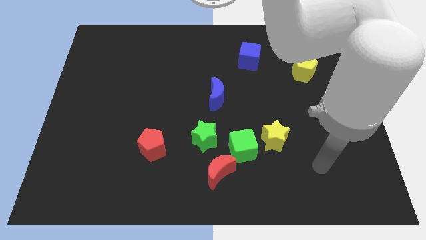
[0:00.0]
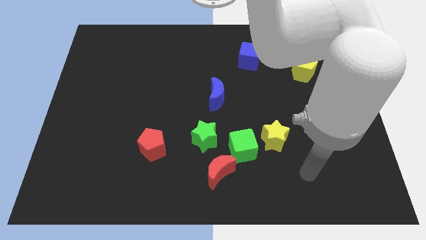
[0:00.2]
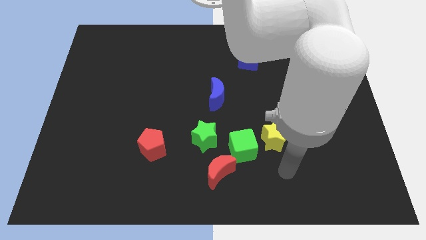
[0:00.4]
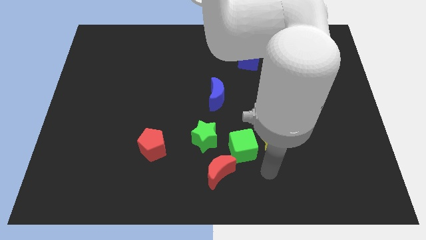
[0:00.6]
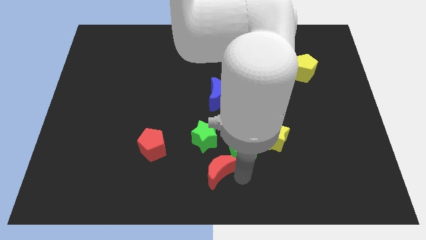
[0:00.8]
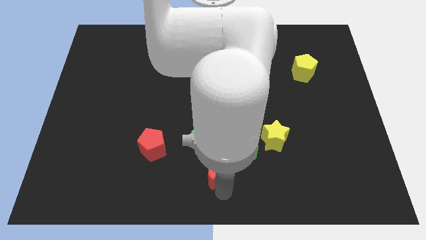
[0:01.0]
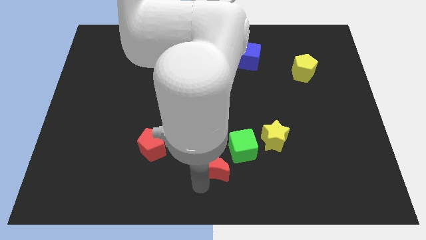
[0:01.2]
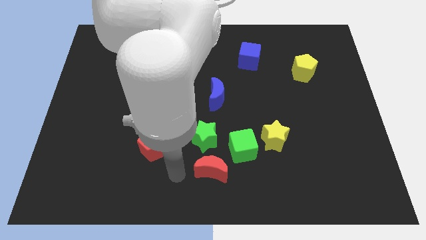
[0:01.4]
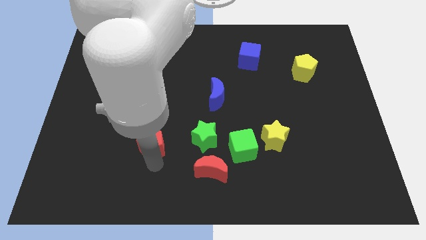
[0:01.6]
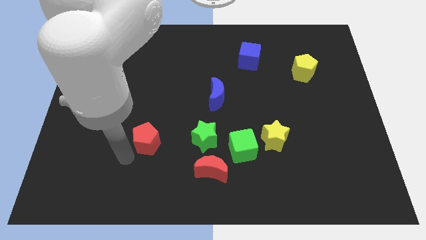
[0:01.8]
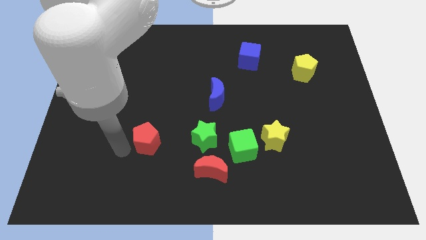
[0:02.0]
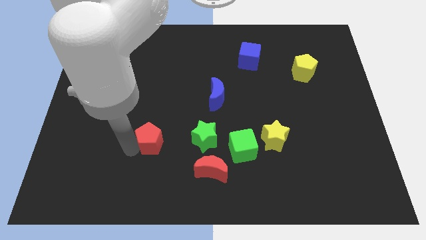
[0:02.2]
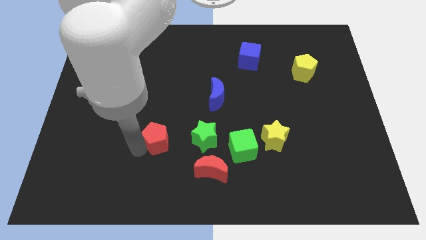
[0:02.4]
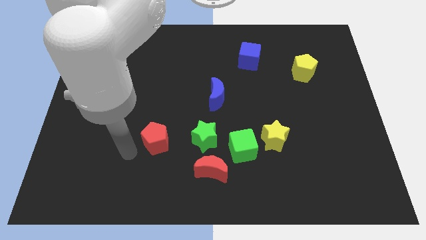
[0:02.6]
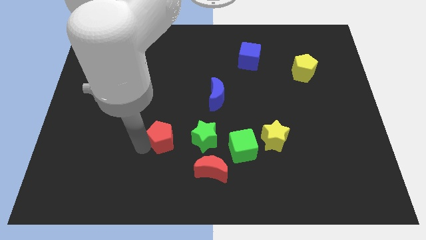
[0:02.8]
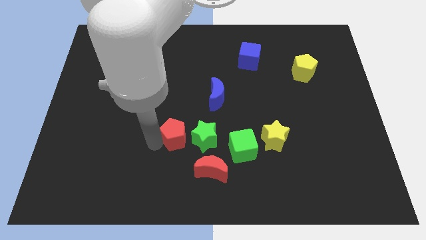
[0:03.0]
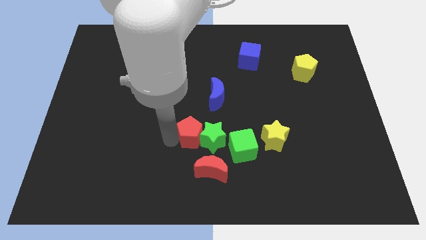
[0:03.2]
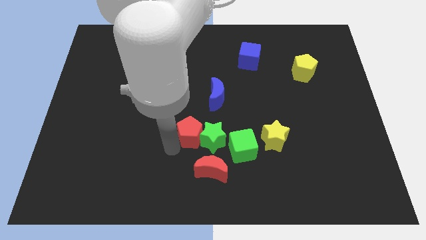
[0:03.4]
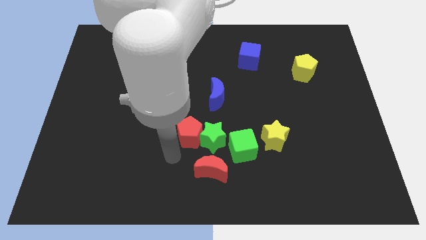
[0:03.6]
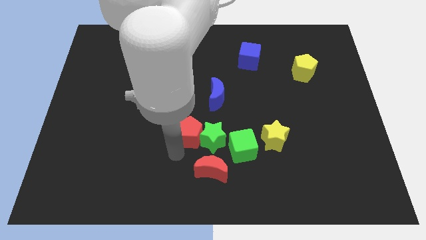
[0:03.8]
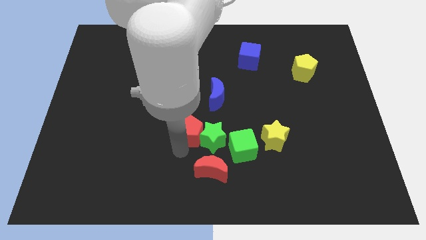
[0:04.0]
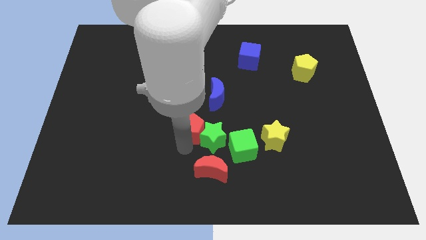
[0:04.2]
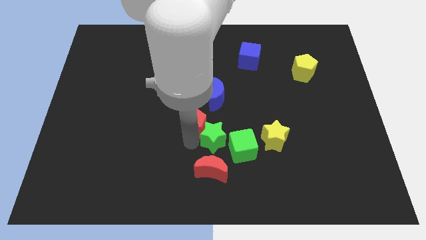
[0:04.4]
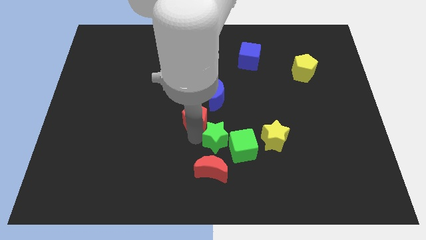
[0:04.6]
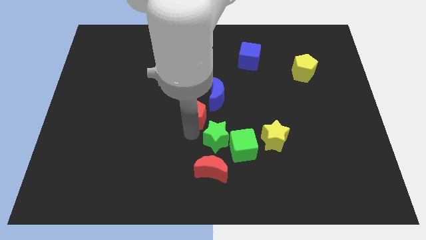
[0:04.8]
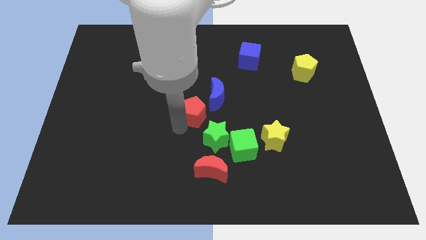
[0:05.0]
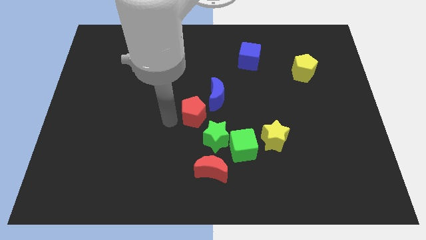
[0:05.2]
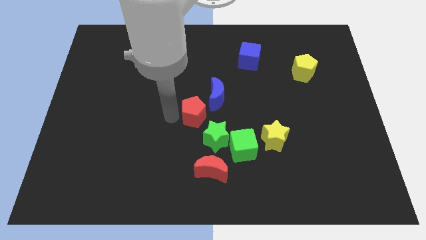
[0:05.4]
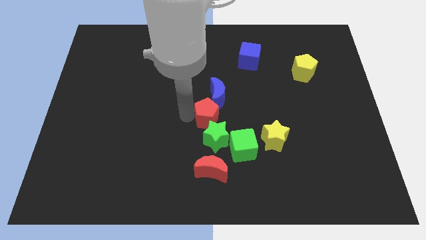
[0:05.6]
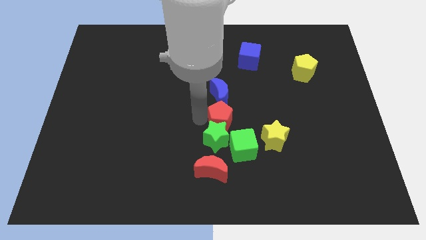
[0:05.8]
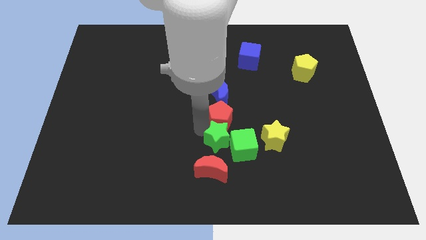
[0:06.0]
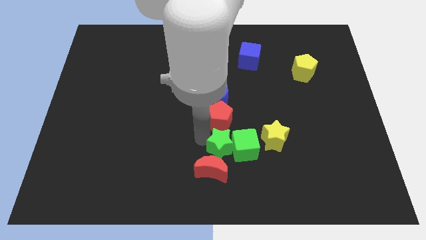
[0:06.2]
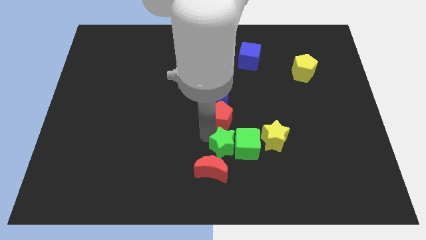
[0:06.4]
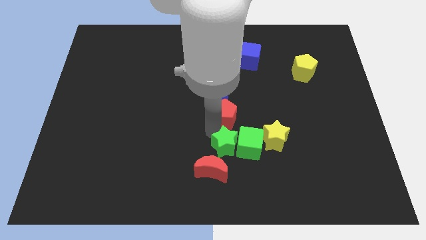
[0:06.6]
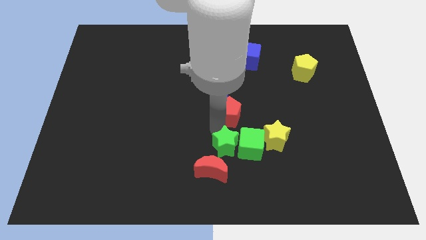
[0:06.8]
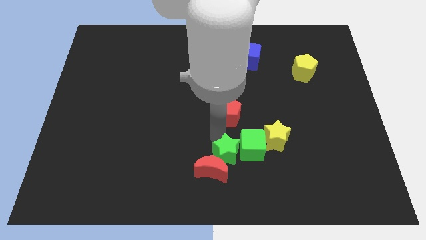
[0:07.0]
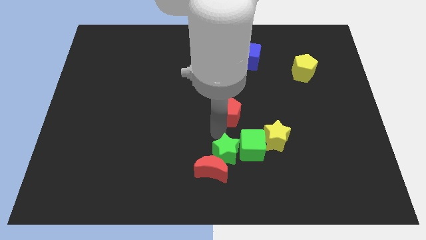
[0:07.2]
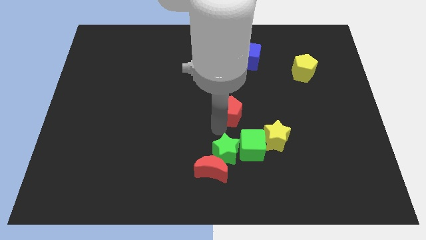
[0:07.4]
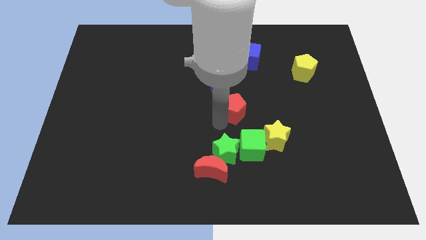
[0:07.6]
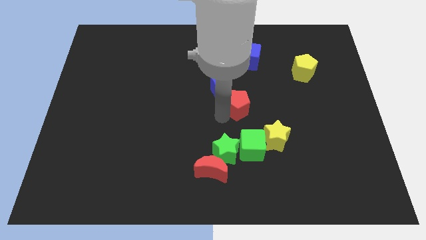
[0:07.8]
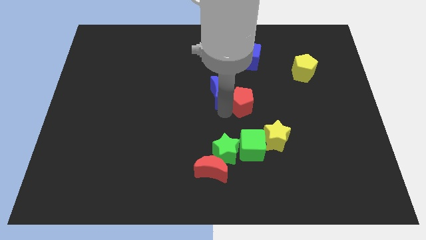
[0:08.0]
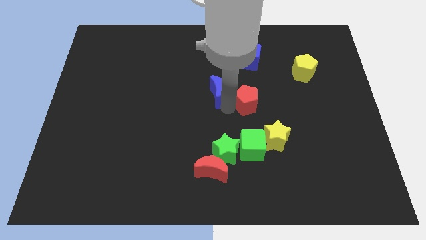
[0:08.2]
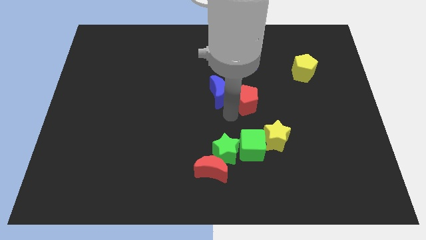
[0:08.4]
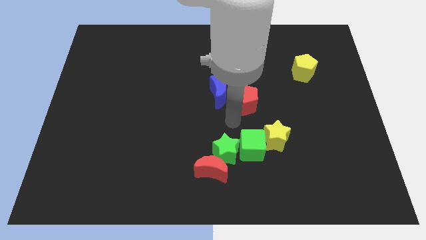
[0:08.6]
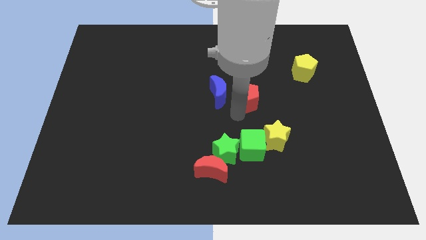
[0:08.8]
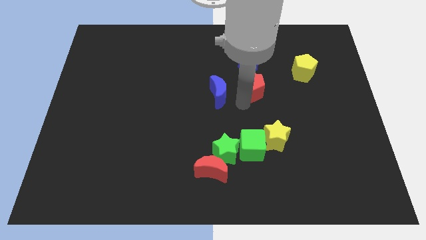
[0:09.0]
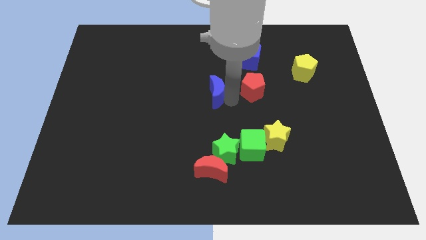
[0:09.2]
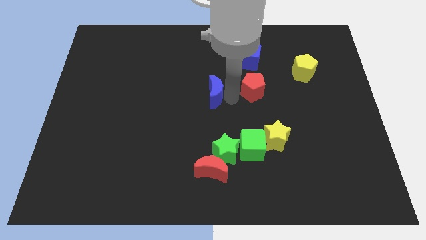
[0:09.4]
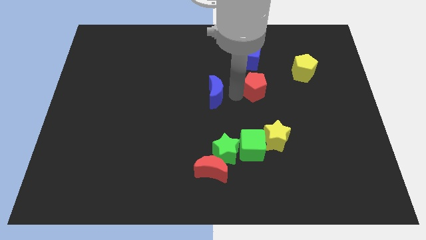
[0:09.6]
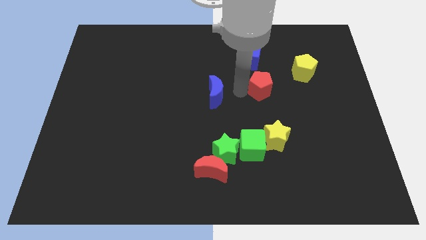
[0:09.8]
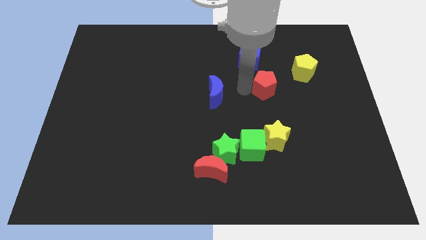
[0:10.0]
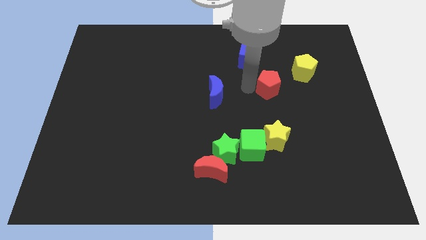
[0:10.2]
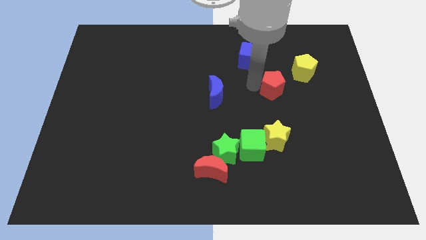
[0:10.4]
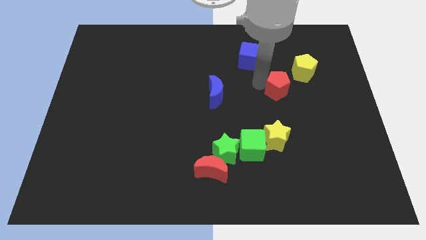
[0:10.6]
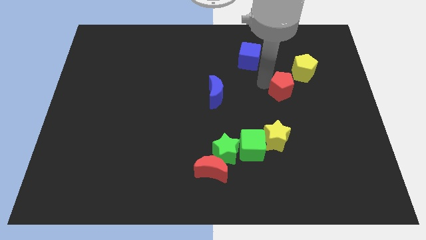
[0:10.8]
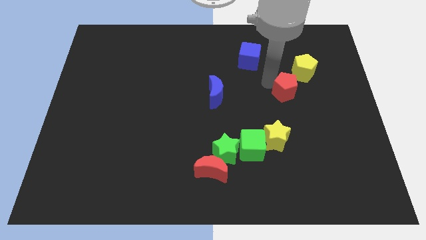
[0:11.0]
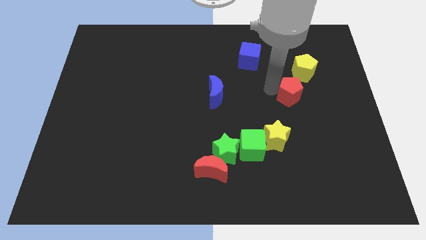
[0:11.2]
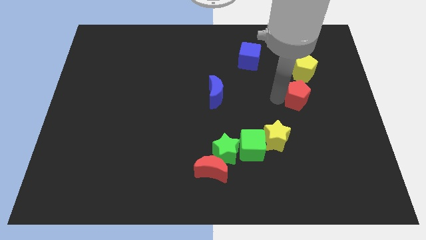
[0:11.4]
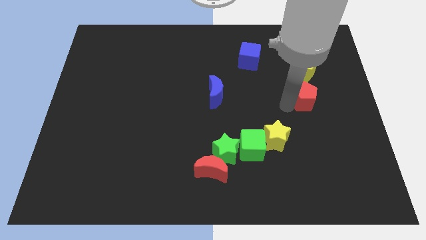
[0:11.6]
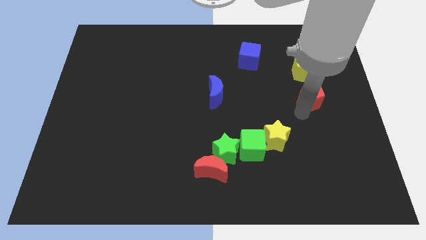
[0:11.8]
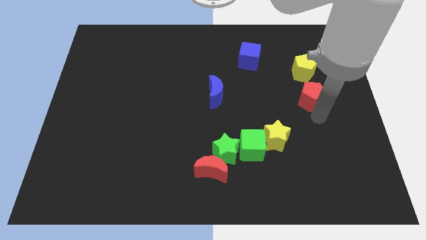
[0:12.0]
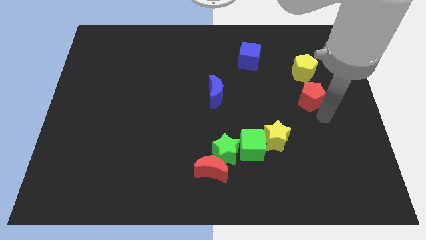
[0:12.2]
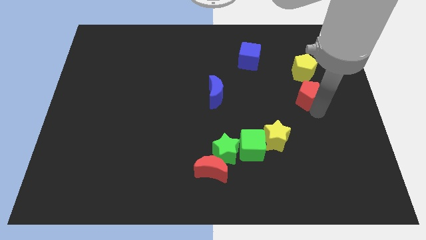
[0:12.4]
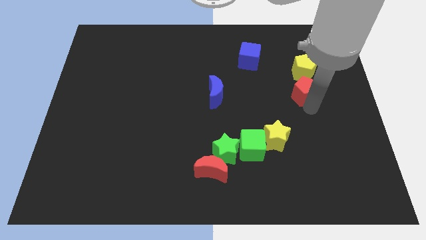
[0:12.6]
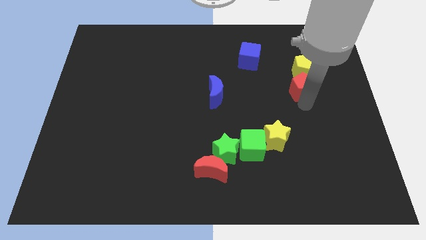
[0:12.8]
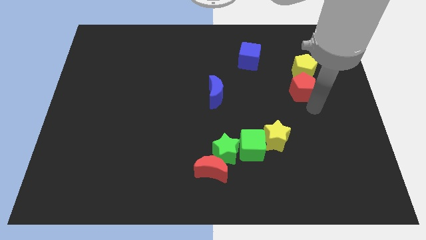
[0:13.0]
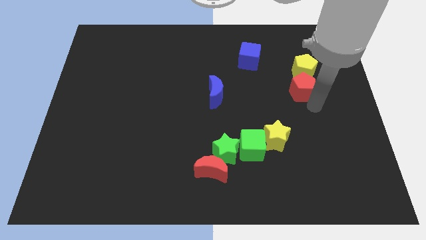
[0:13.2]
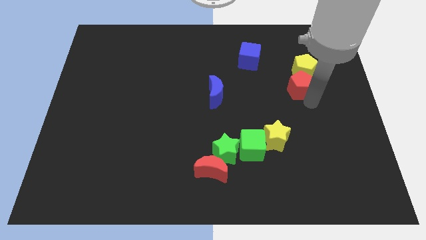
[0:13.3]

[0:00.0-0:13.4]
slide the red pentagon next to the yellow pentagon

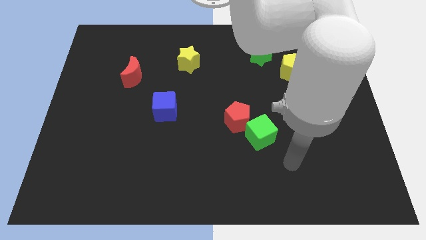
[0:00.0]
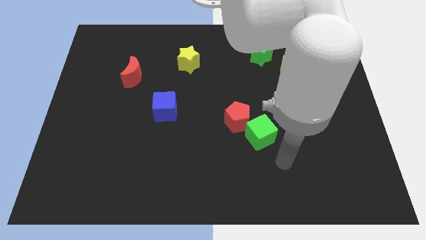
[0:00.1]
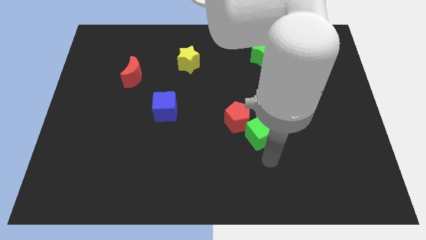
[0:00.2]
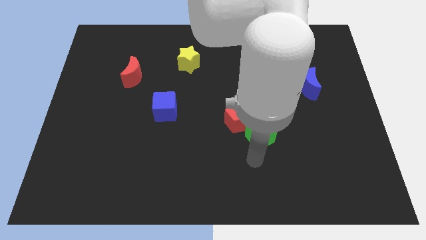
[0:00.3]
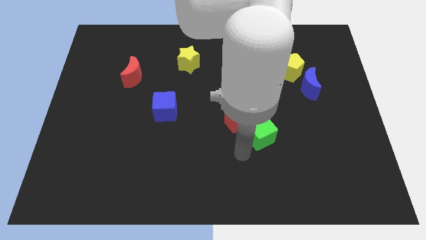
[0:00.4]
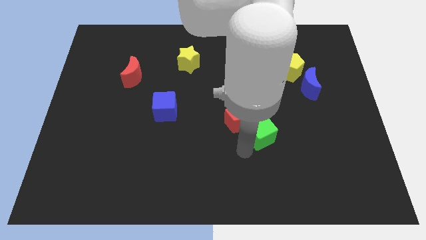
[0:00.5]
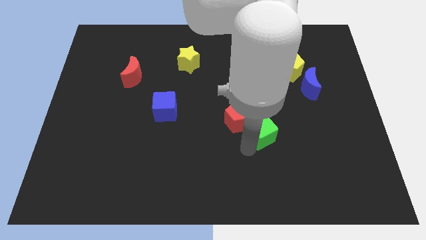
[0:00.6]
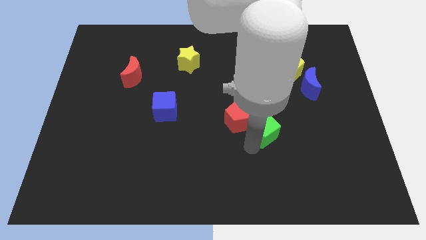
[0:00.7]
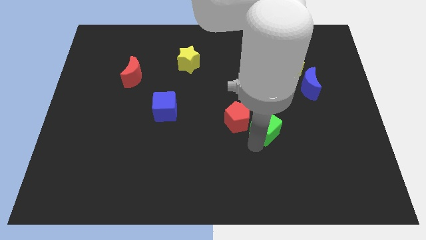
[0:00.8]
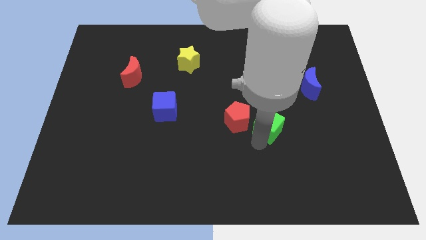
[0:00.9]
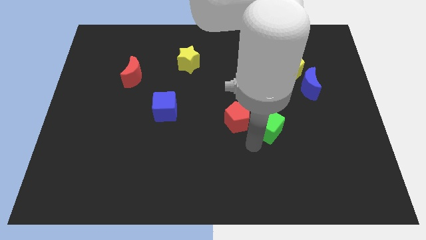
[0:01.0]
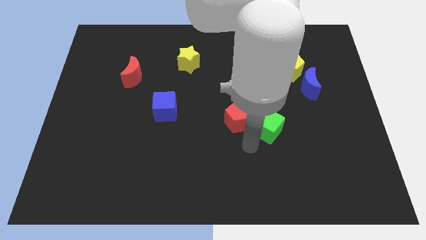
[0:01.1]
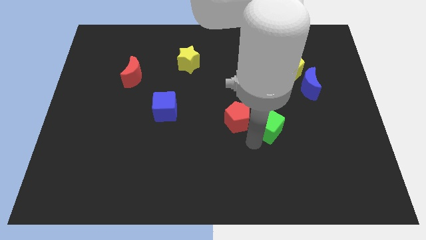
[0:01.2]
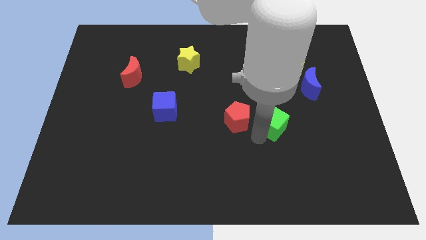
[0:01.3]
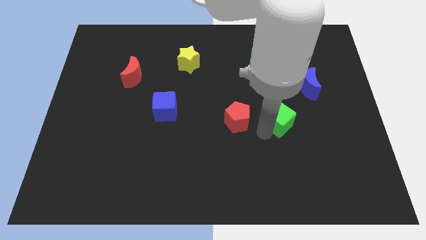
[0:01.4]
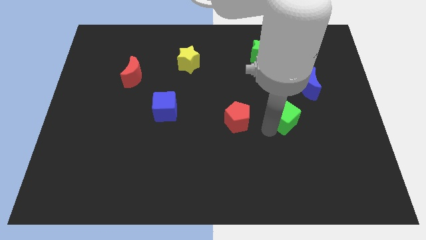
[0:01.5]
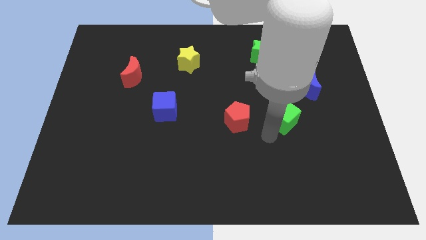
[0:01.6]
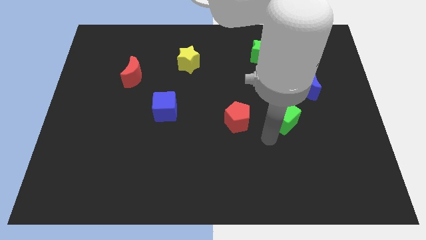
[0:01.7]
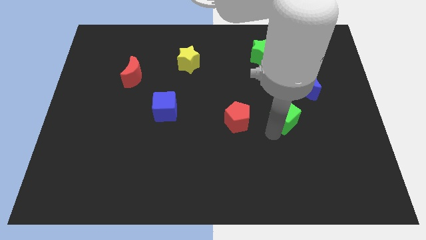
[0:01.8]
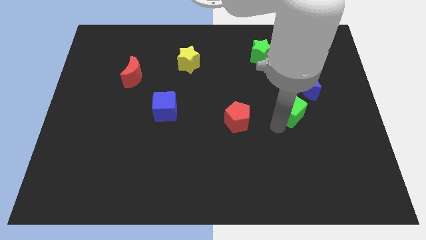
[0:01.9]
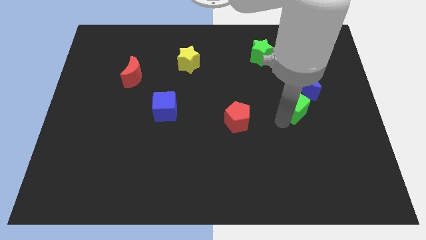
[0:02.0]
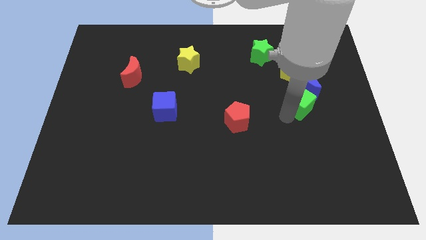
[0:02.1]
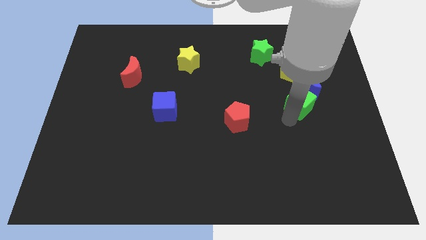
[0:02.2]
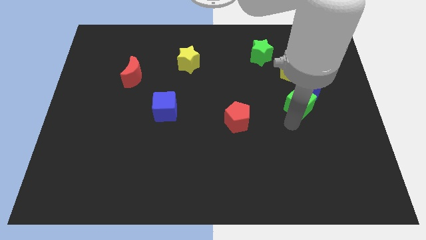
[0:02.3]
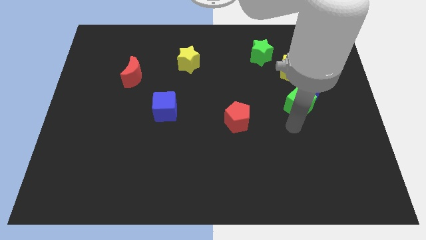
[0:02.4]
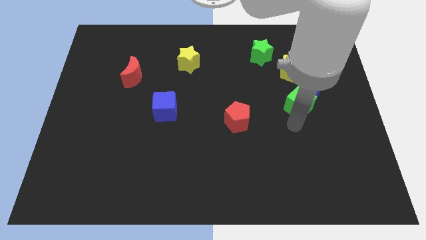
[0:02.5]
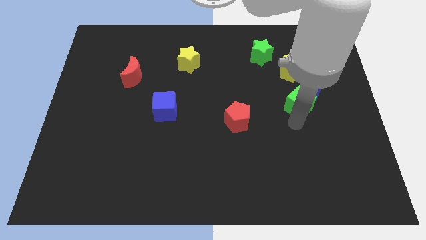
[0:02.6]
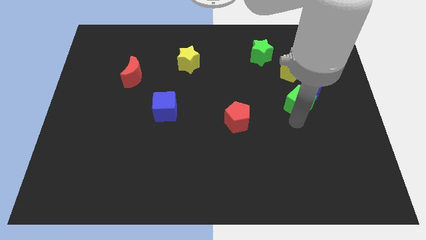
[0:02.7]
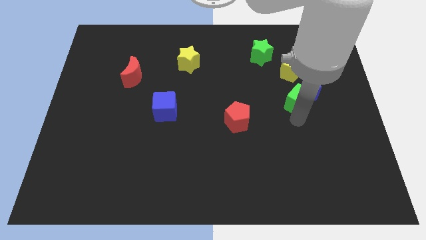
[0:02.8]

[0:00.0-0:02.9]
move the green cube to the blue moon
